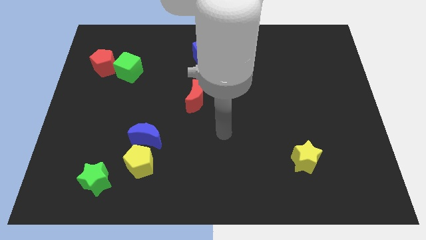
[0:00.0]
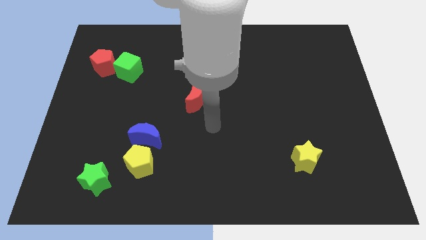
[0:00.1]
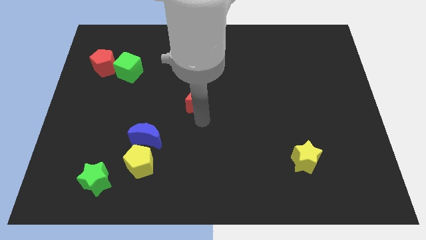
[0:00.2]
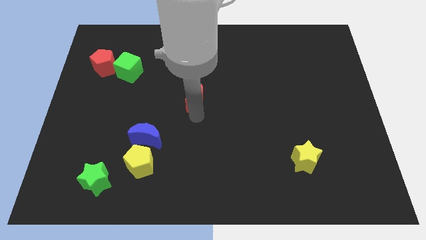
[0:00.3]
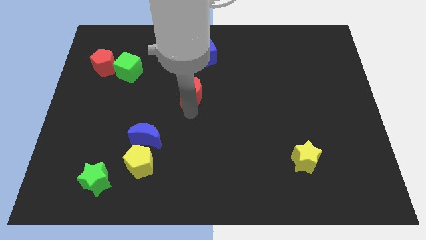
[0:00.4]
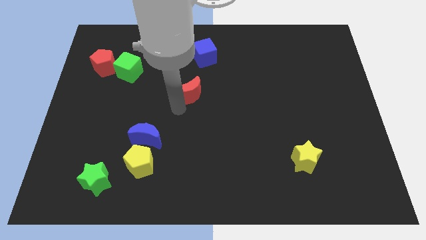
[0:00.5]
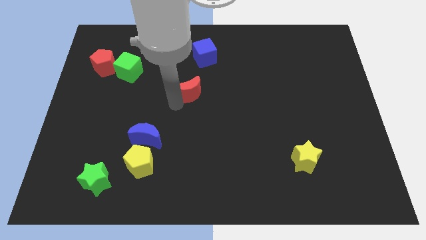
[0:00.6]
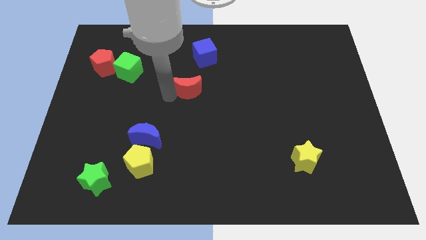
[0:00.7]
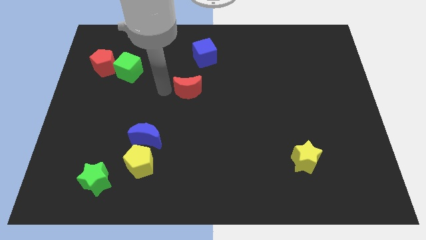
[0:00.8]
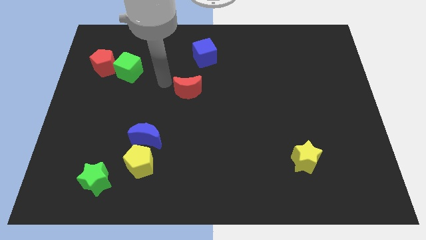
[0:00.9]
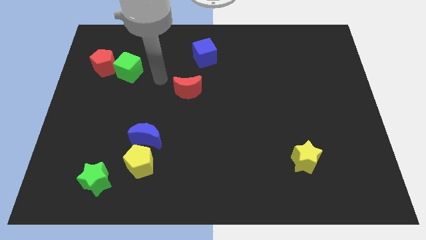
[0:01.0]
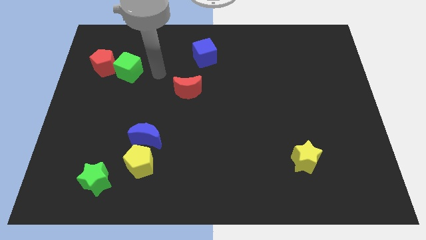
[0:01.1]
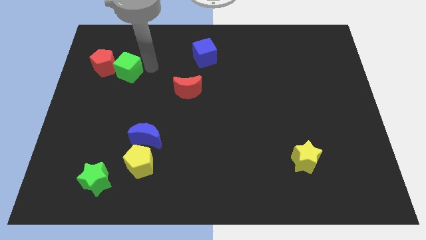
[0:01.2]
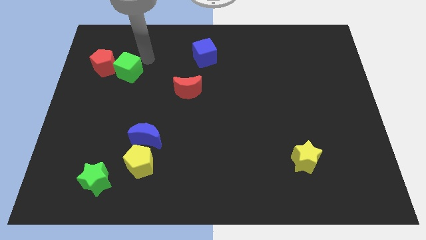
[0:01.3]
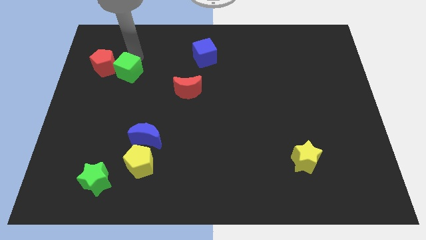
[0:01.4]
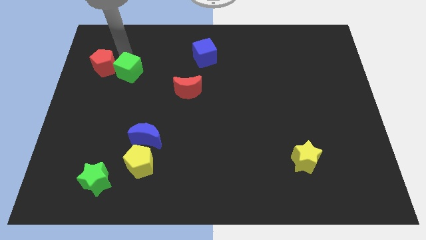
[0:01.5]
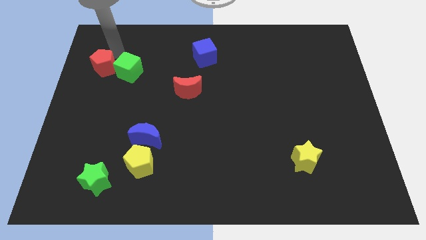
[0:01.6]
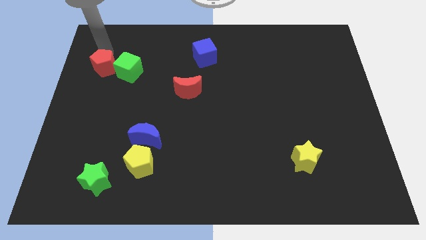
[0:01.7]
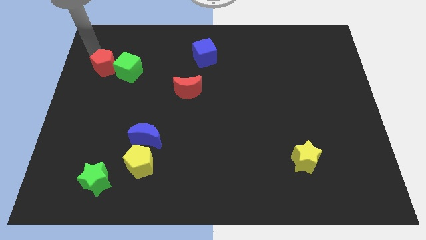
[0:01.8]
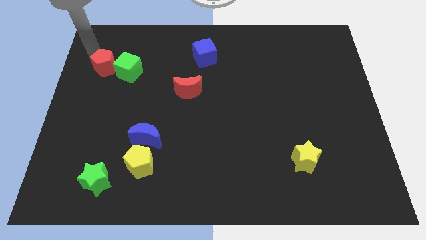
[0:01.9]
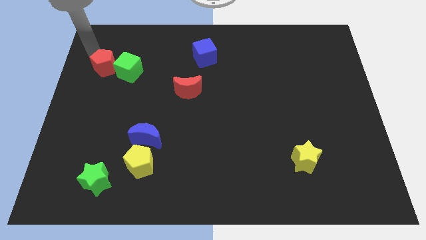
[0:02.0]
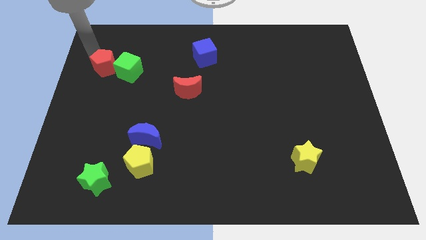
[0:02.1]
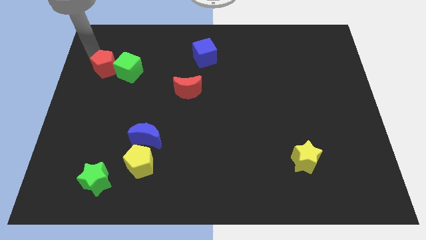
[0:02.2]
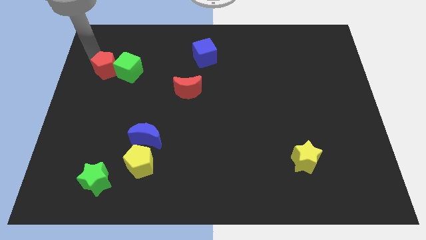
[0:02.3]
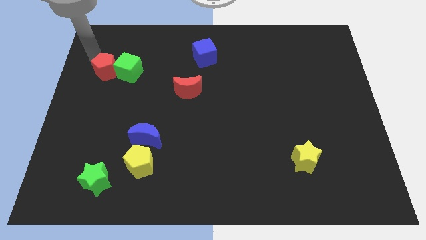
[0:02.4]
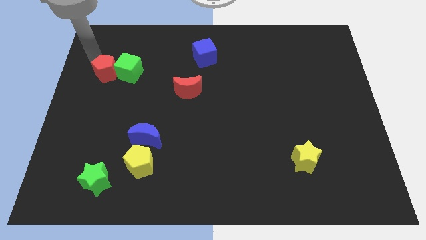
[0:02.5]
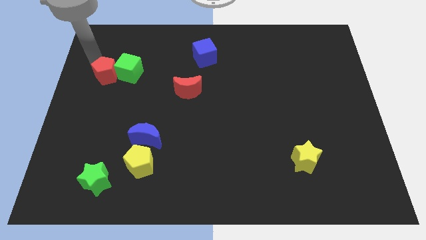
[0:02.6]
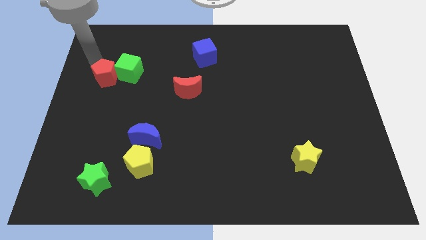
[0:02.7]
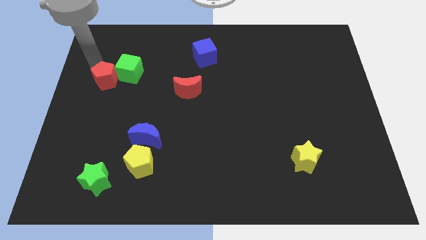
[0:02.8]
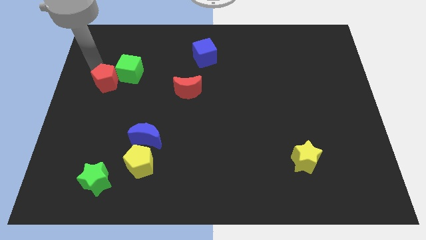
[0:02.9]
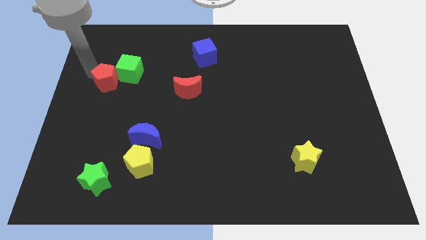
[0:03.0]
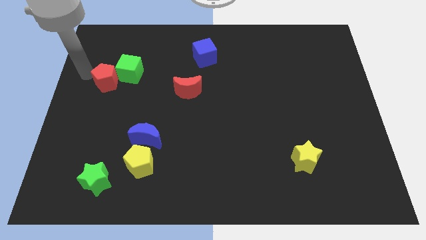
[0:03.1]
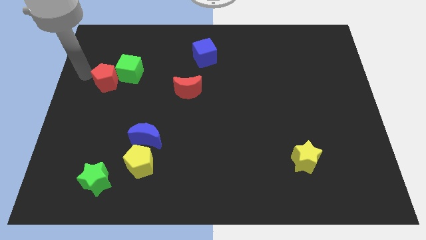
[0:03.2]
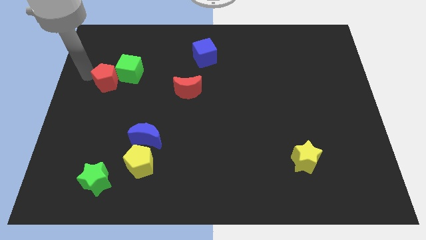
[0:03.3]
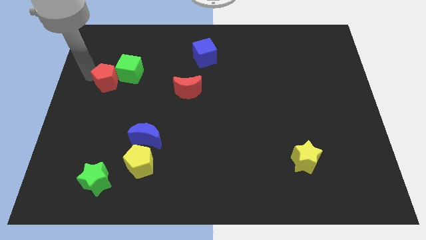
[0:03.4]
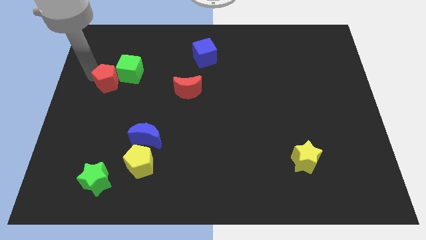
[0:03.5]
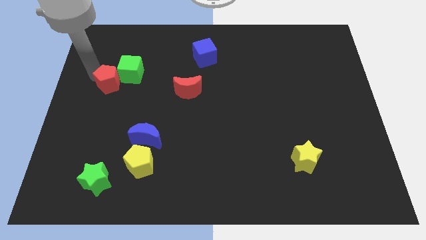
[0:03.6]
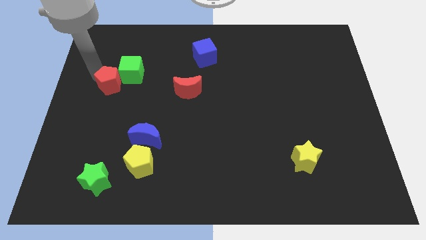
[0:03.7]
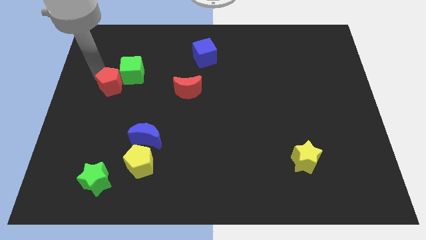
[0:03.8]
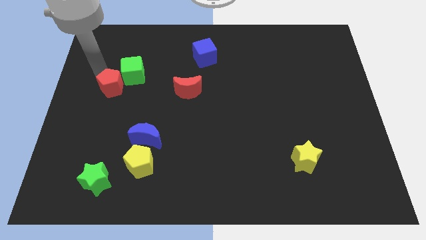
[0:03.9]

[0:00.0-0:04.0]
slightly move the red pentagon down and then to the right

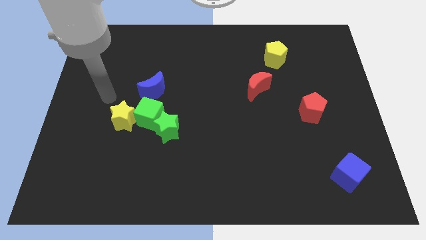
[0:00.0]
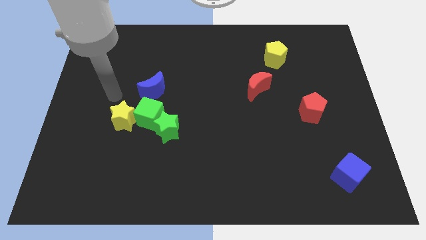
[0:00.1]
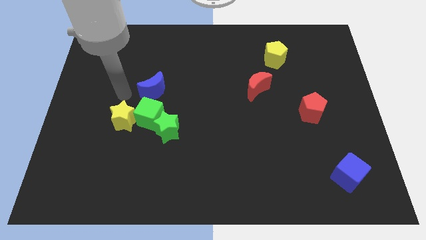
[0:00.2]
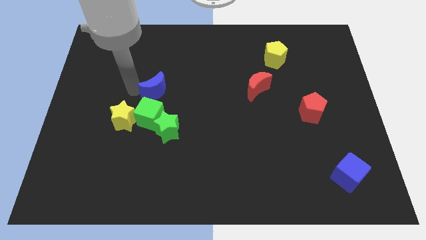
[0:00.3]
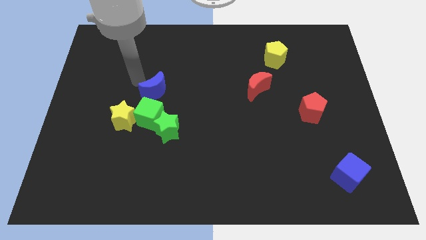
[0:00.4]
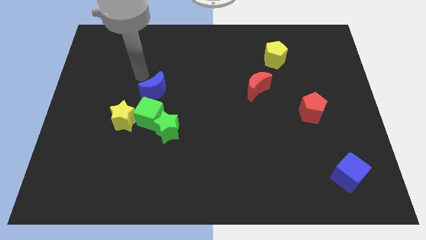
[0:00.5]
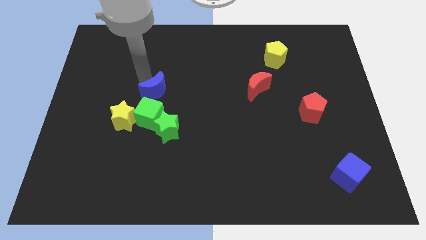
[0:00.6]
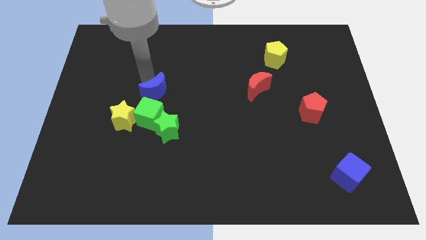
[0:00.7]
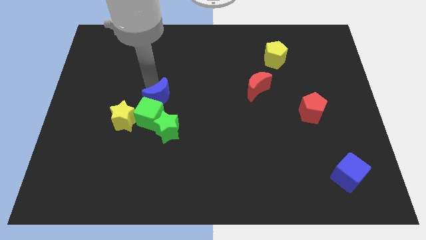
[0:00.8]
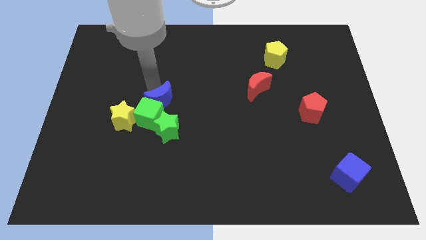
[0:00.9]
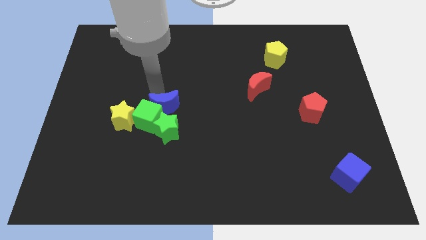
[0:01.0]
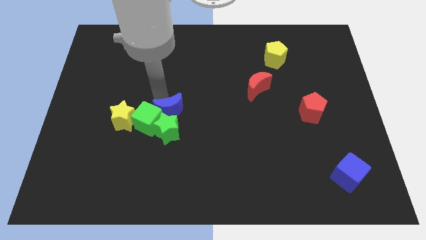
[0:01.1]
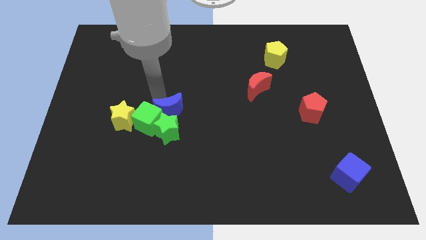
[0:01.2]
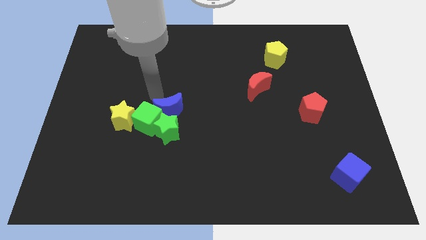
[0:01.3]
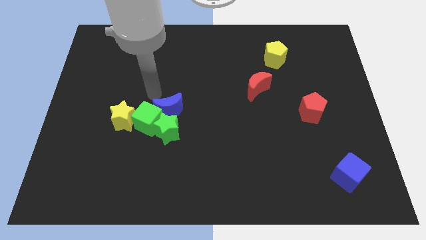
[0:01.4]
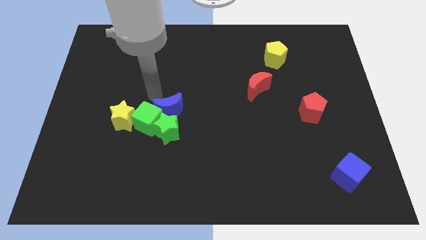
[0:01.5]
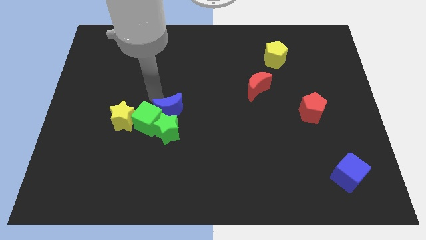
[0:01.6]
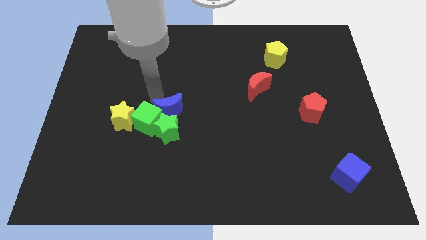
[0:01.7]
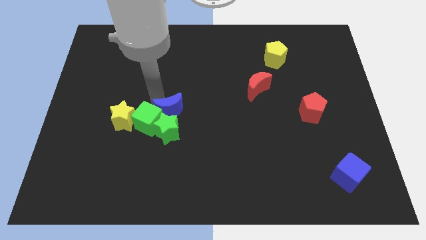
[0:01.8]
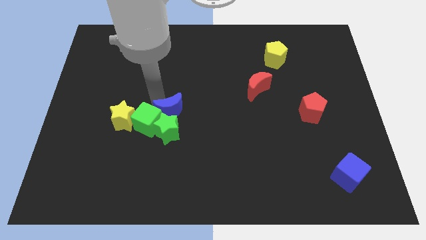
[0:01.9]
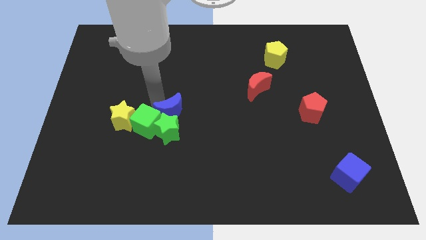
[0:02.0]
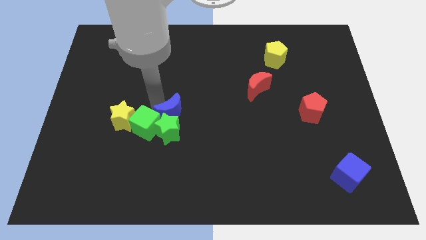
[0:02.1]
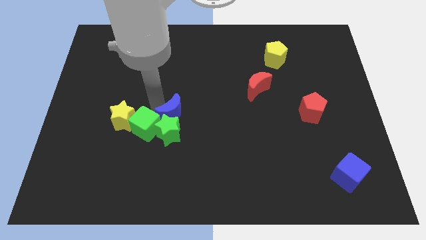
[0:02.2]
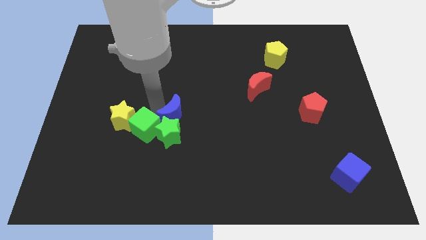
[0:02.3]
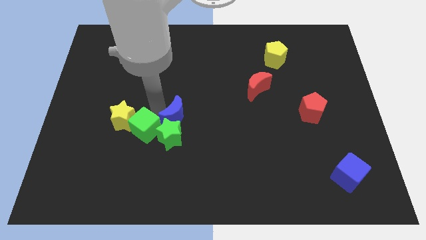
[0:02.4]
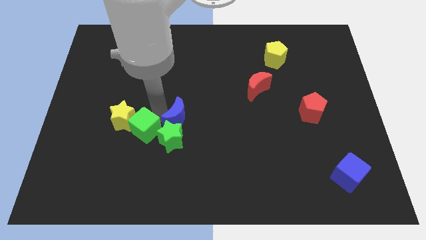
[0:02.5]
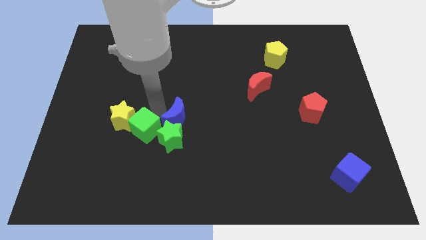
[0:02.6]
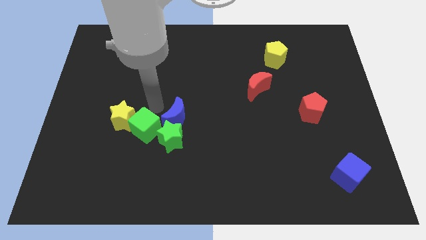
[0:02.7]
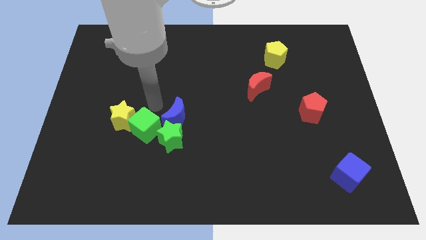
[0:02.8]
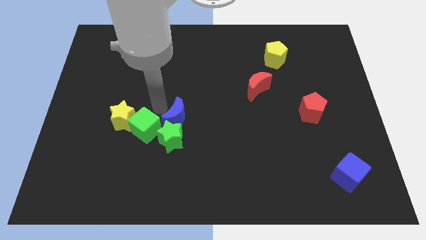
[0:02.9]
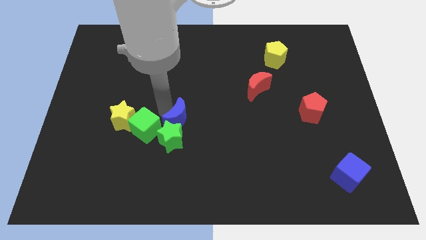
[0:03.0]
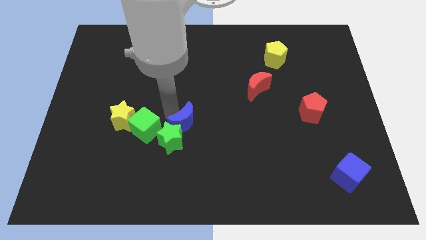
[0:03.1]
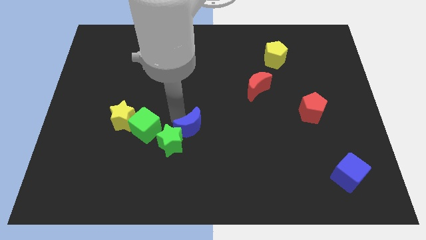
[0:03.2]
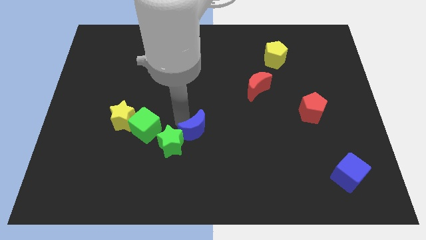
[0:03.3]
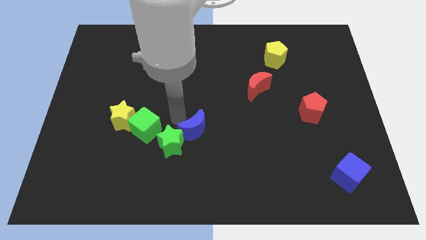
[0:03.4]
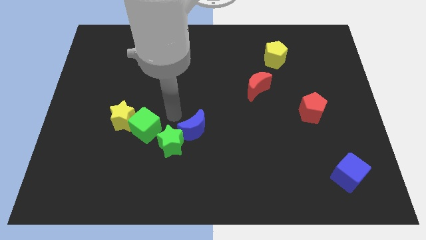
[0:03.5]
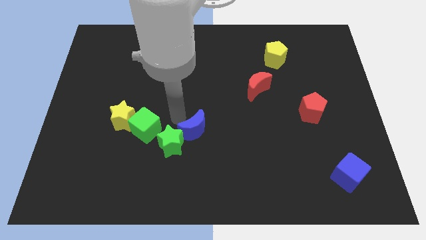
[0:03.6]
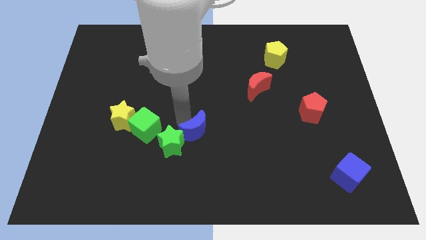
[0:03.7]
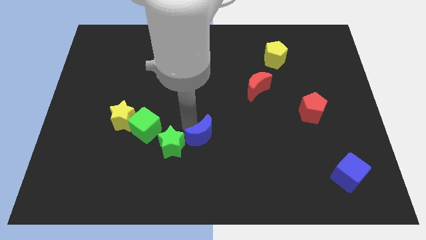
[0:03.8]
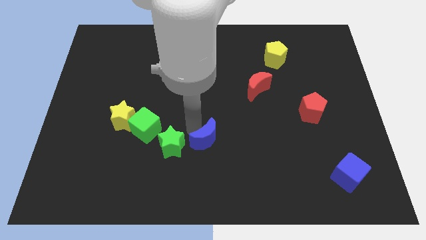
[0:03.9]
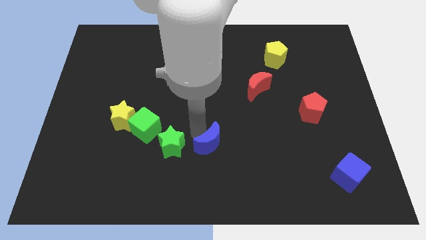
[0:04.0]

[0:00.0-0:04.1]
move the blue moon diagonally down and right

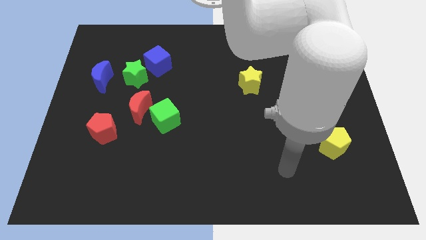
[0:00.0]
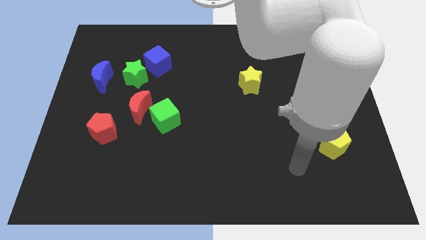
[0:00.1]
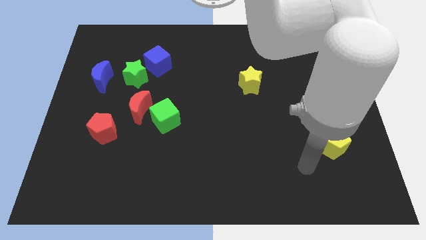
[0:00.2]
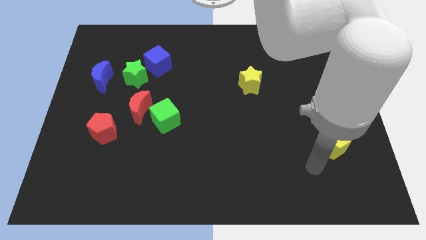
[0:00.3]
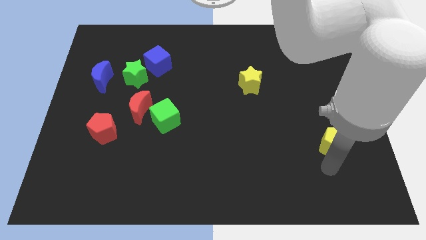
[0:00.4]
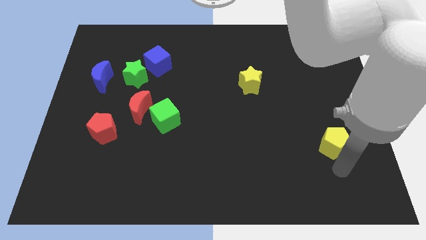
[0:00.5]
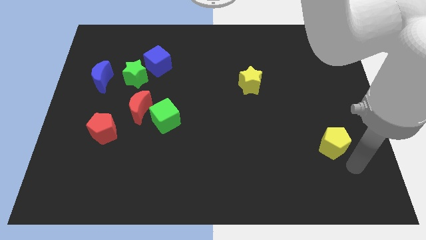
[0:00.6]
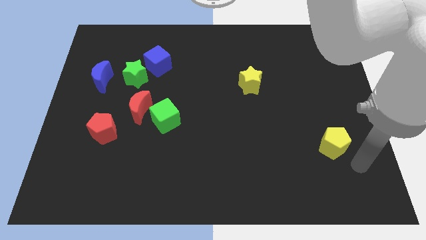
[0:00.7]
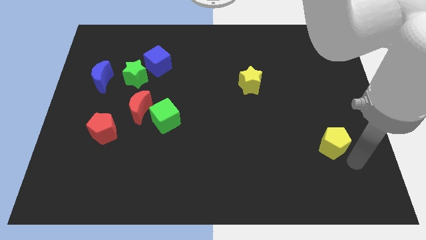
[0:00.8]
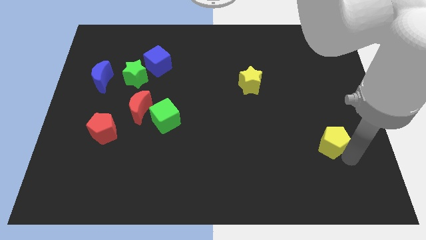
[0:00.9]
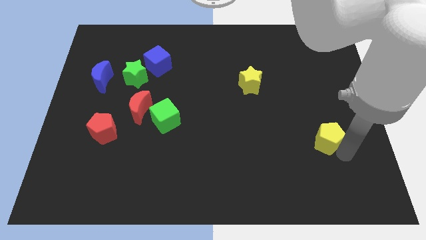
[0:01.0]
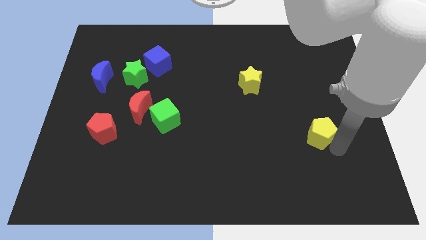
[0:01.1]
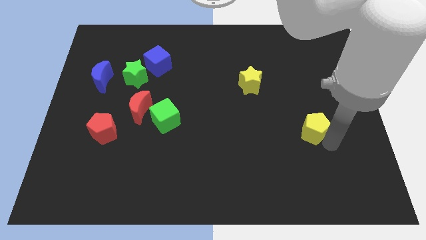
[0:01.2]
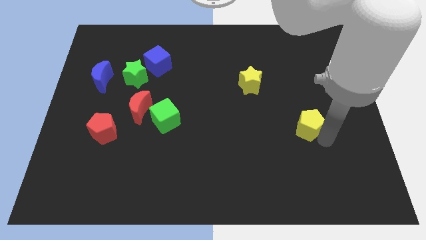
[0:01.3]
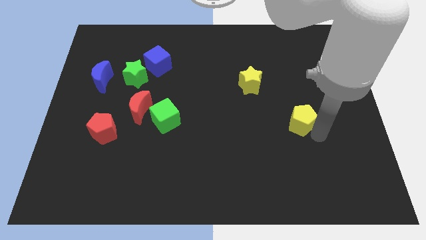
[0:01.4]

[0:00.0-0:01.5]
move the yellow pentagon diagonally upwards and left a bit
